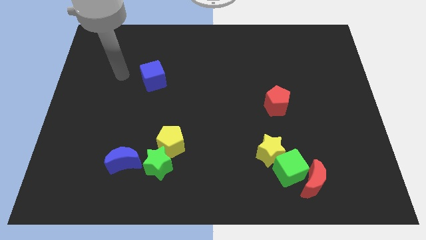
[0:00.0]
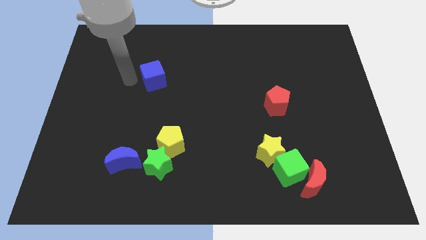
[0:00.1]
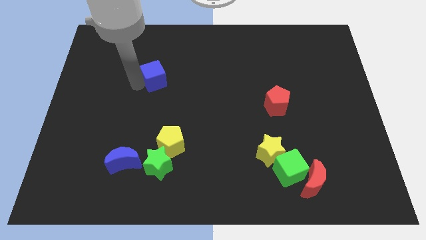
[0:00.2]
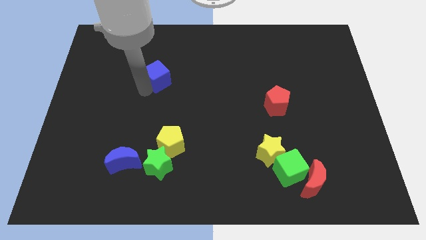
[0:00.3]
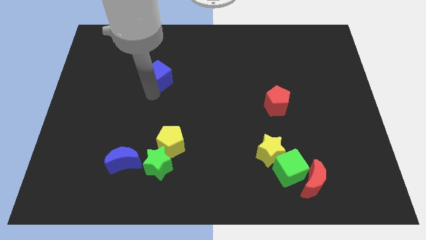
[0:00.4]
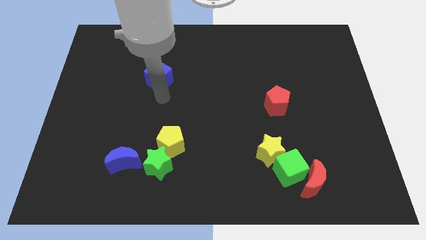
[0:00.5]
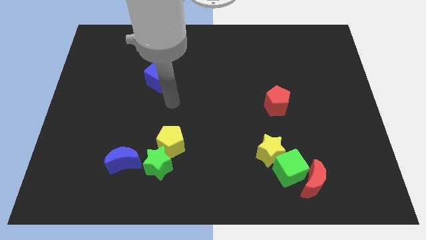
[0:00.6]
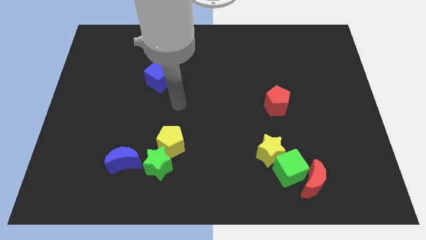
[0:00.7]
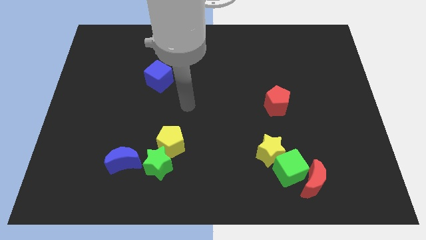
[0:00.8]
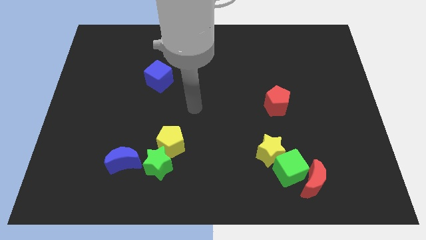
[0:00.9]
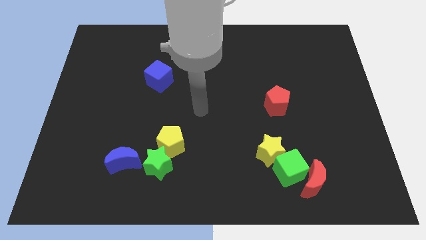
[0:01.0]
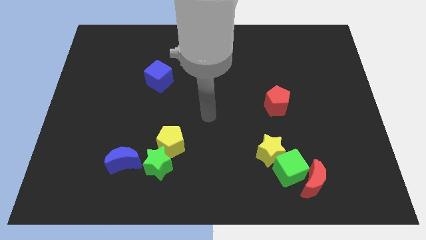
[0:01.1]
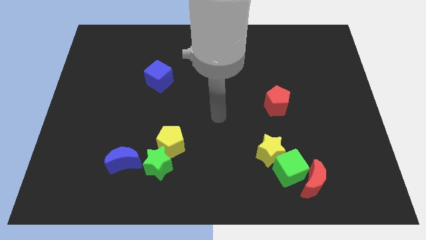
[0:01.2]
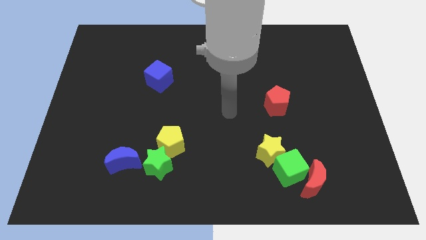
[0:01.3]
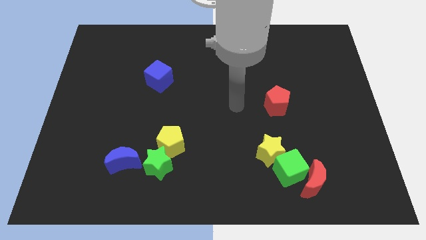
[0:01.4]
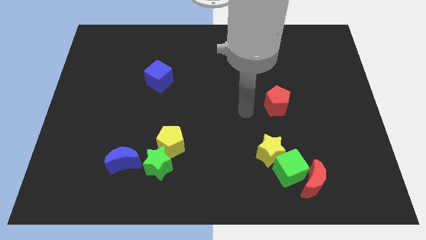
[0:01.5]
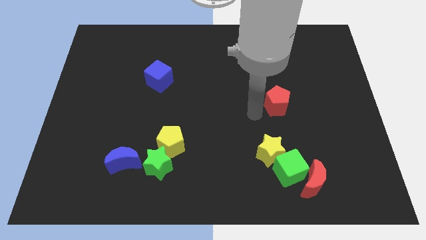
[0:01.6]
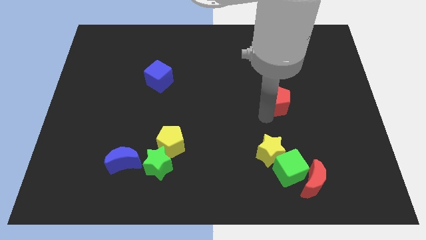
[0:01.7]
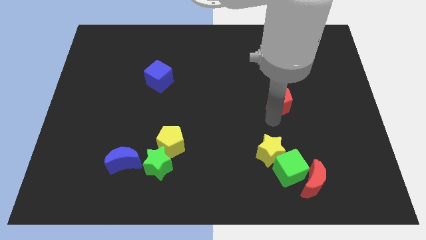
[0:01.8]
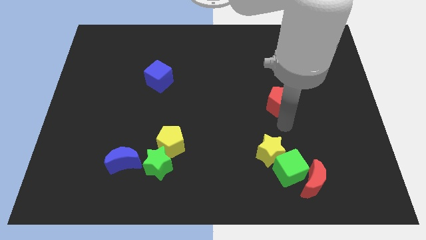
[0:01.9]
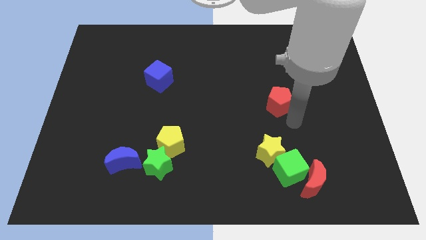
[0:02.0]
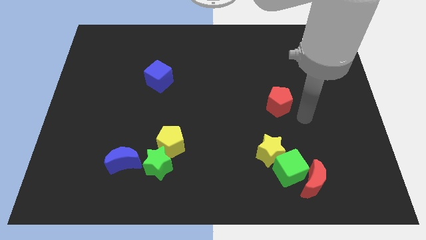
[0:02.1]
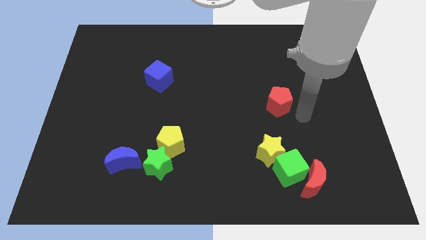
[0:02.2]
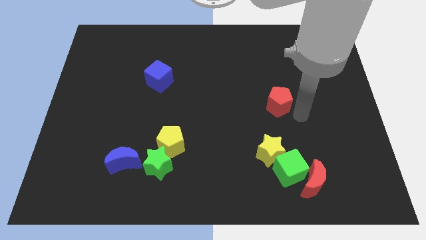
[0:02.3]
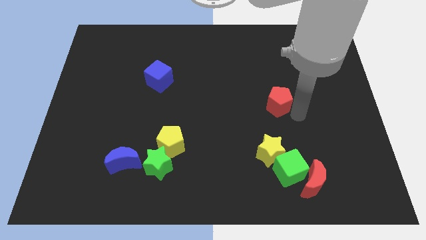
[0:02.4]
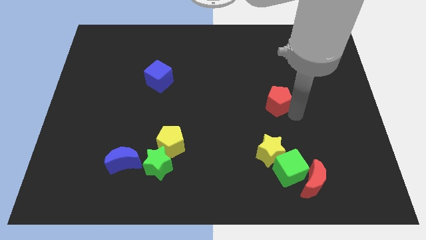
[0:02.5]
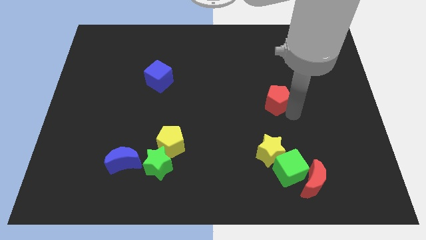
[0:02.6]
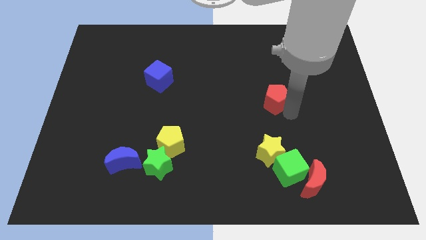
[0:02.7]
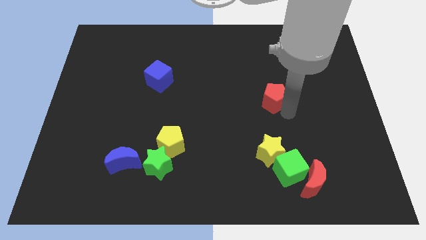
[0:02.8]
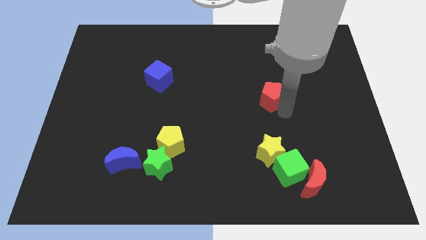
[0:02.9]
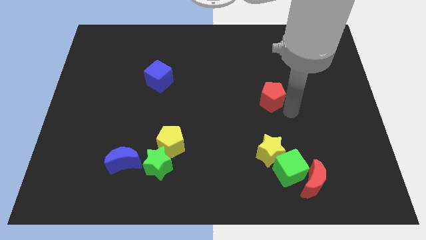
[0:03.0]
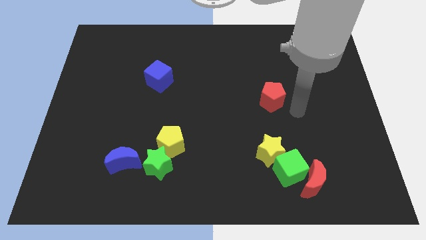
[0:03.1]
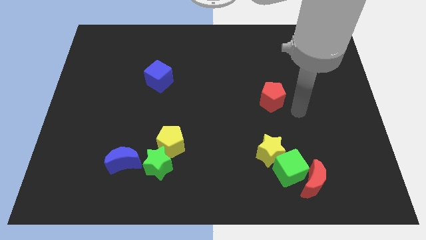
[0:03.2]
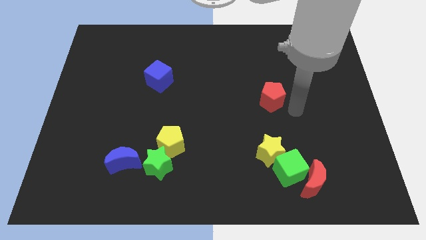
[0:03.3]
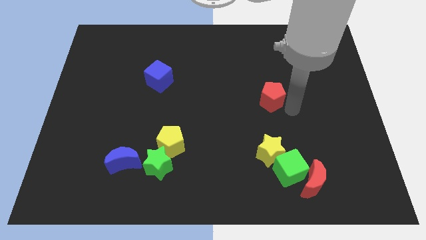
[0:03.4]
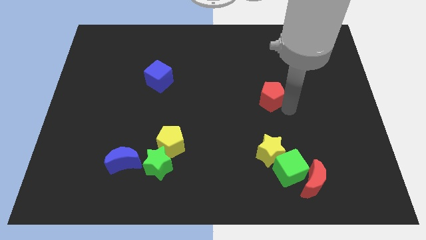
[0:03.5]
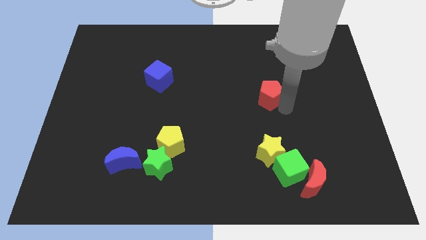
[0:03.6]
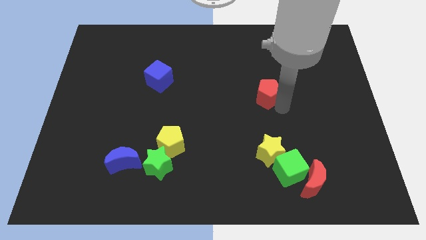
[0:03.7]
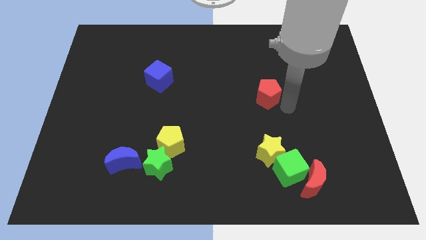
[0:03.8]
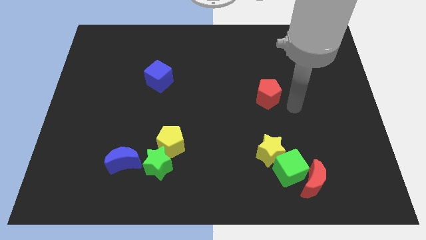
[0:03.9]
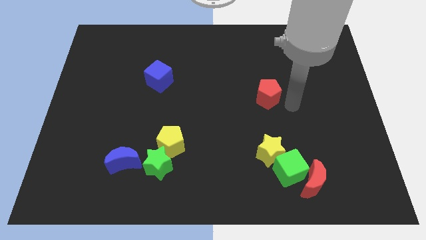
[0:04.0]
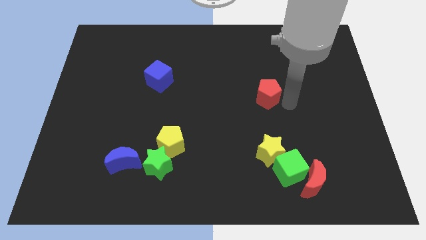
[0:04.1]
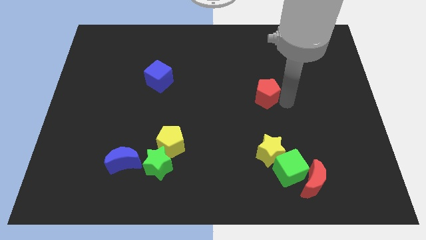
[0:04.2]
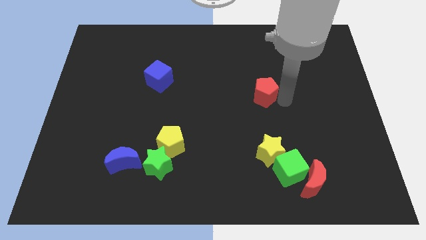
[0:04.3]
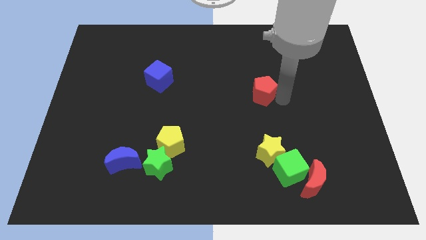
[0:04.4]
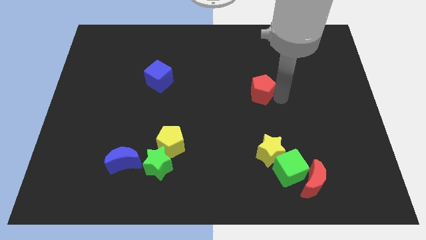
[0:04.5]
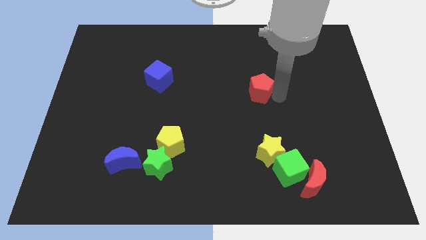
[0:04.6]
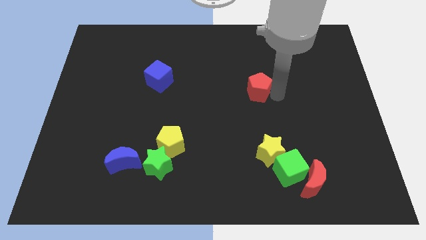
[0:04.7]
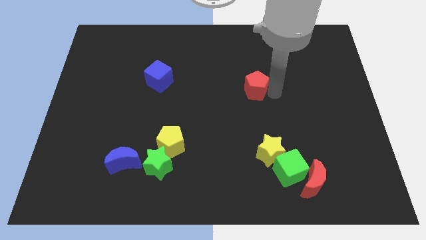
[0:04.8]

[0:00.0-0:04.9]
slightly move the red pentagon upwards and to the left

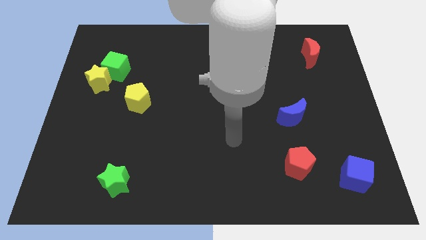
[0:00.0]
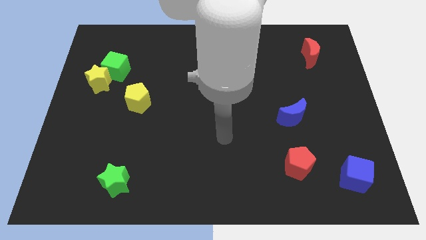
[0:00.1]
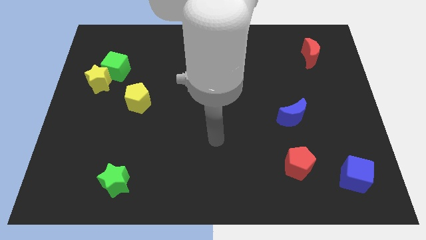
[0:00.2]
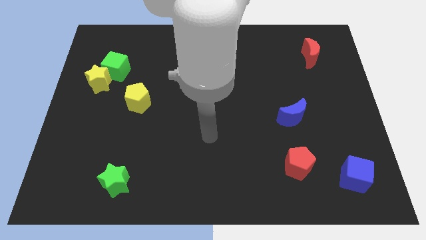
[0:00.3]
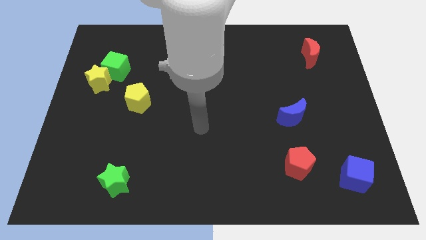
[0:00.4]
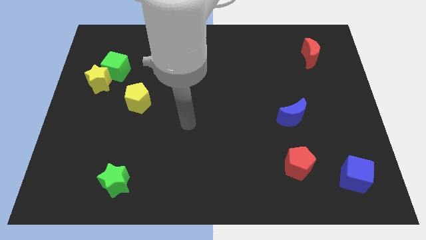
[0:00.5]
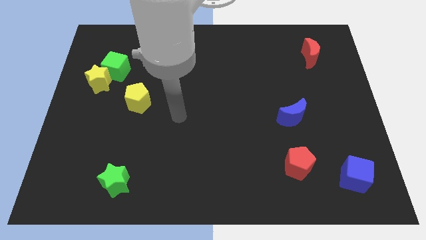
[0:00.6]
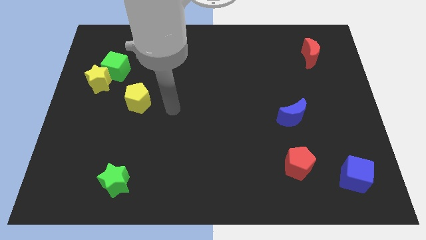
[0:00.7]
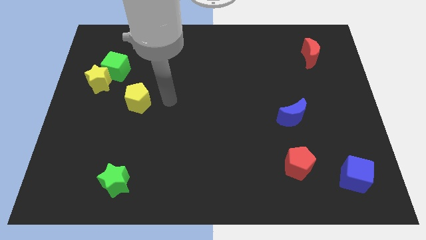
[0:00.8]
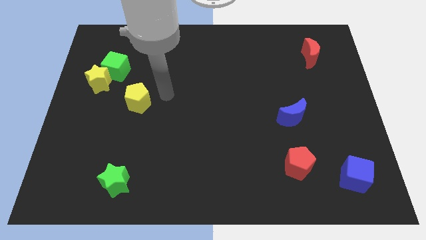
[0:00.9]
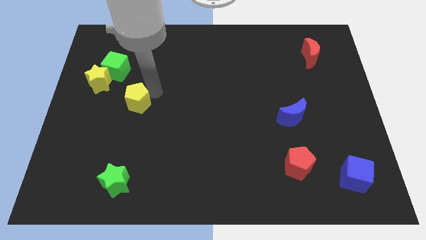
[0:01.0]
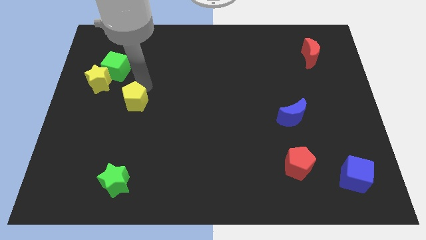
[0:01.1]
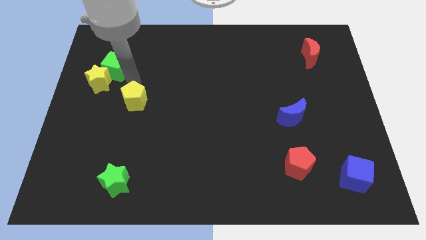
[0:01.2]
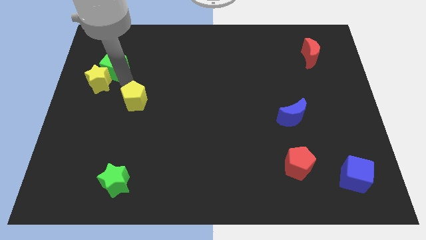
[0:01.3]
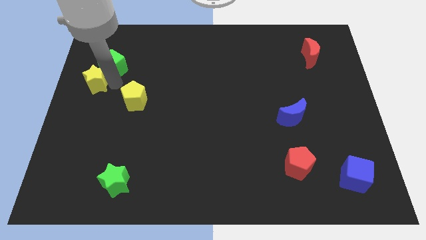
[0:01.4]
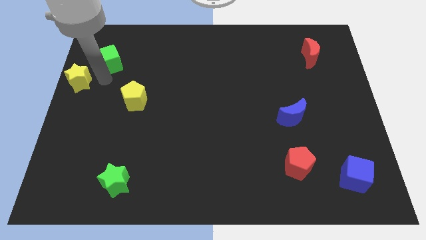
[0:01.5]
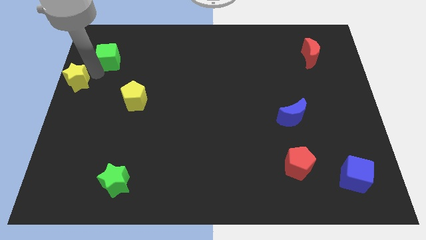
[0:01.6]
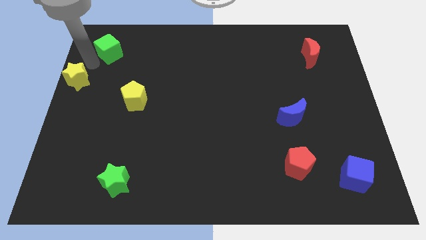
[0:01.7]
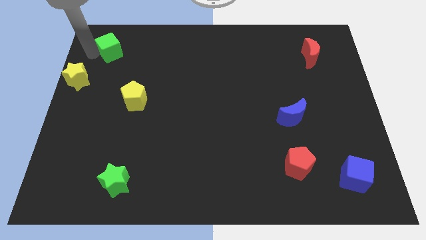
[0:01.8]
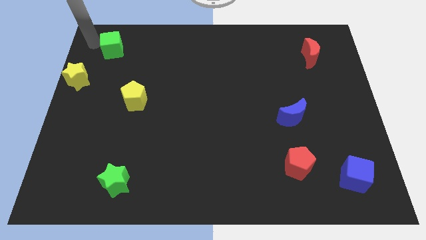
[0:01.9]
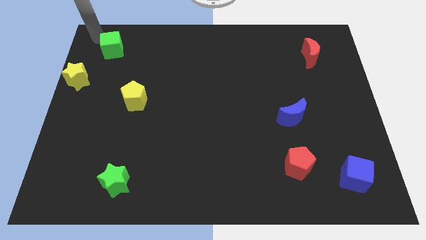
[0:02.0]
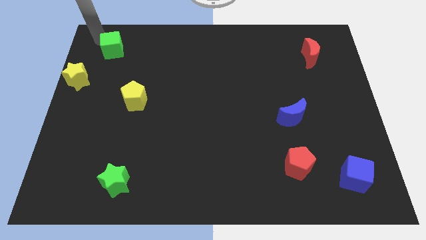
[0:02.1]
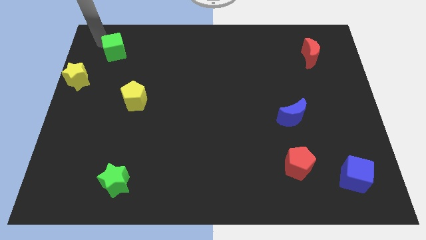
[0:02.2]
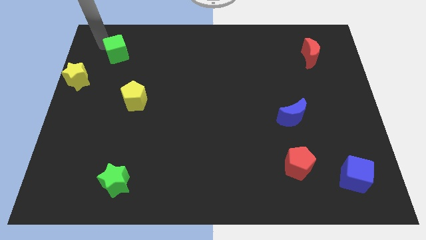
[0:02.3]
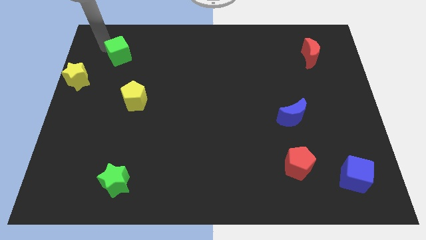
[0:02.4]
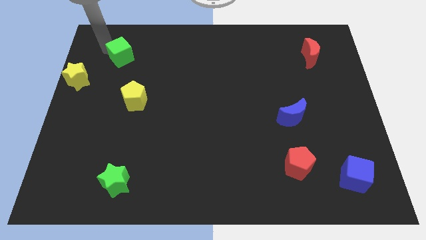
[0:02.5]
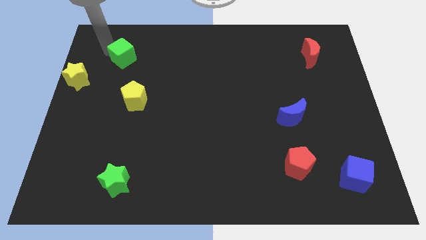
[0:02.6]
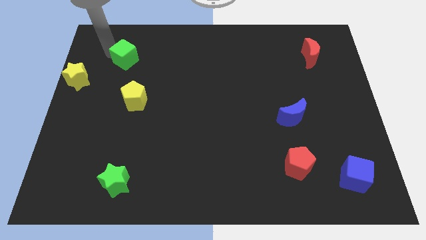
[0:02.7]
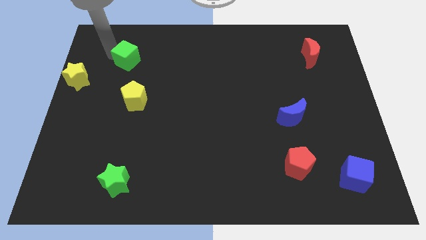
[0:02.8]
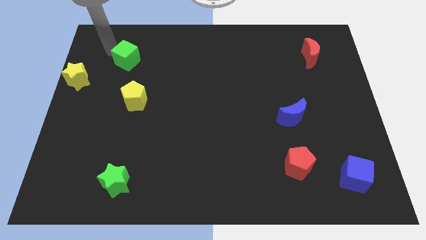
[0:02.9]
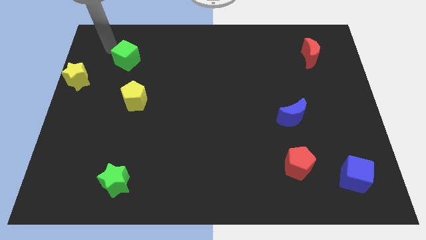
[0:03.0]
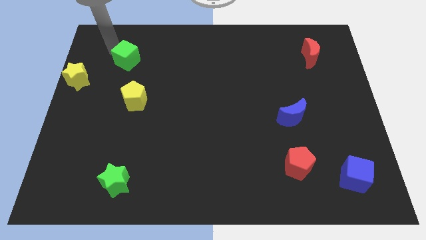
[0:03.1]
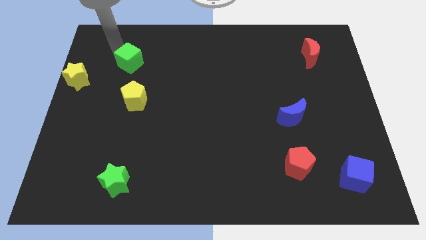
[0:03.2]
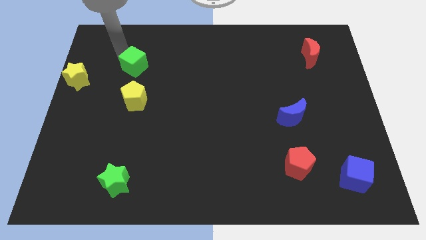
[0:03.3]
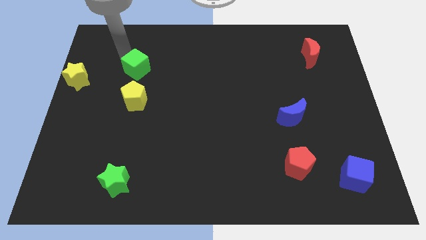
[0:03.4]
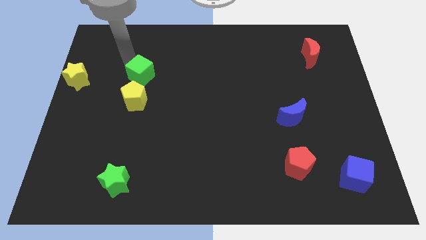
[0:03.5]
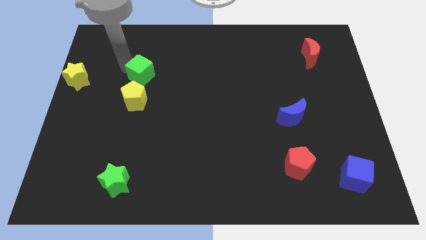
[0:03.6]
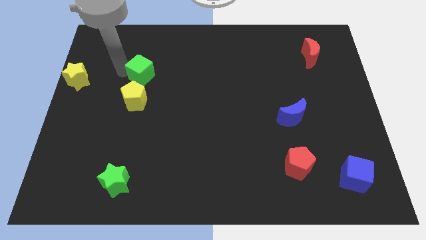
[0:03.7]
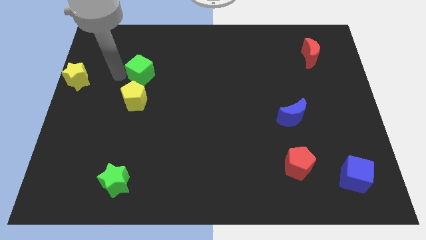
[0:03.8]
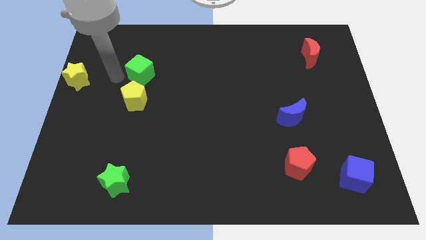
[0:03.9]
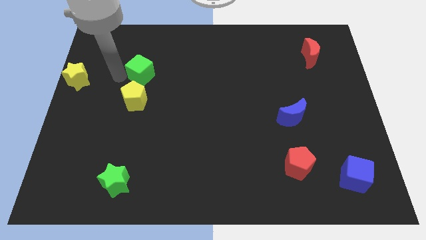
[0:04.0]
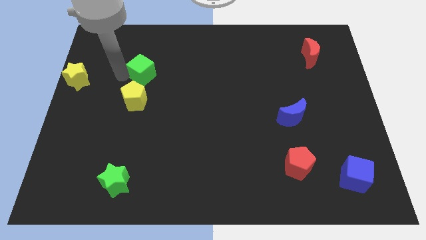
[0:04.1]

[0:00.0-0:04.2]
slide the green cube a bit to the right
